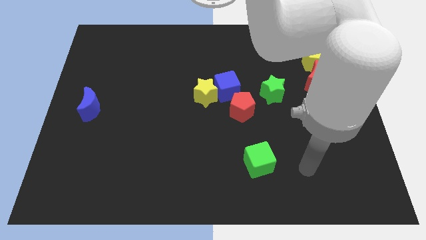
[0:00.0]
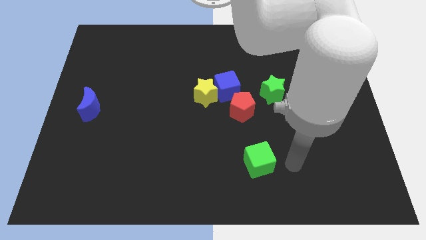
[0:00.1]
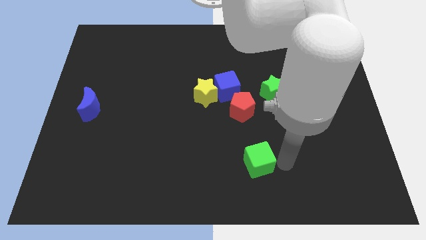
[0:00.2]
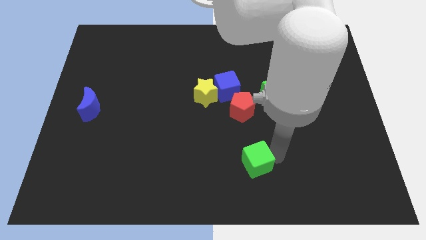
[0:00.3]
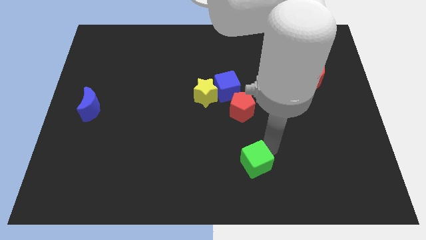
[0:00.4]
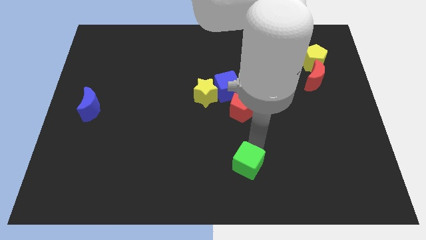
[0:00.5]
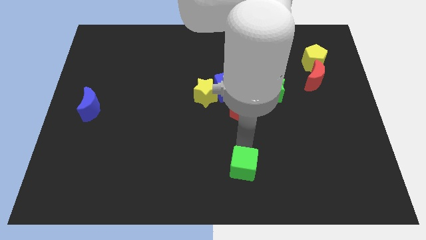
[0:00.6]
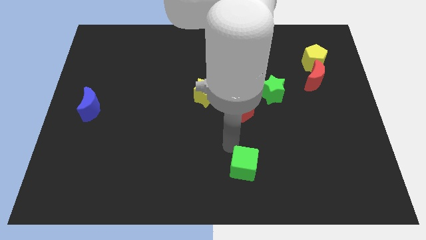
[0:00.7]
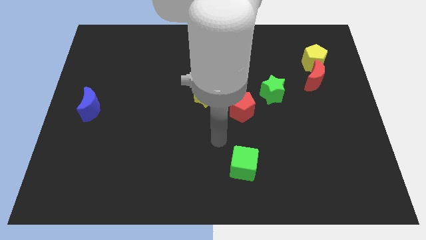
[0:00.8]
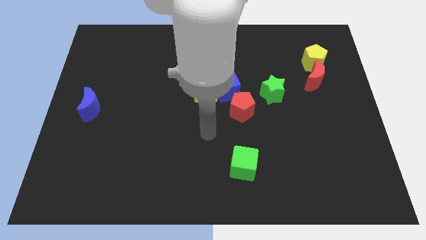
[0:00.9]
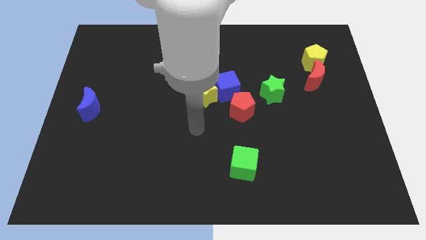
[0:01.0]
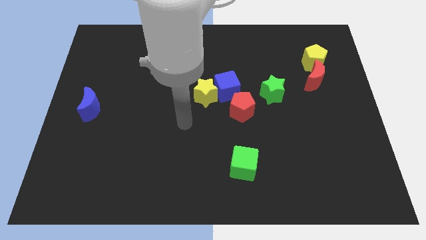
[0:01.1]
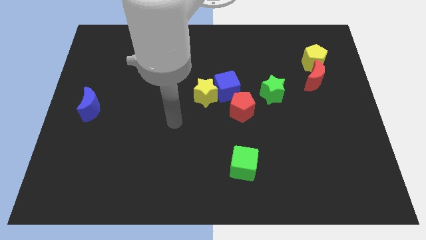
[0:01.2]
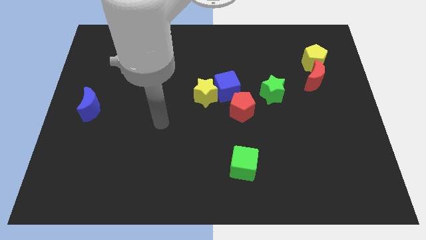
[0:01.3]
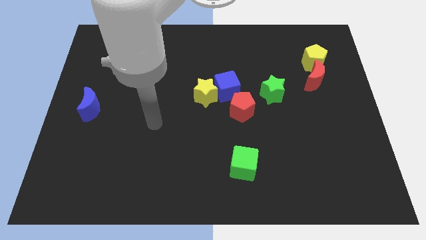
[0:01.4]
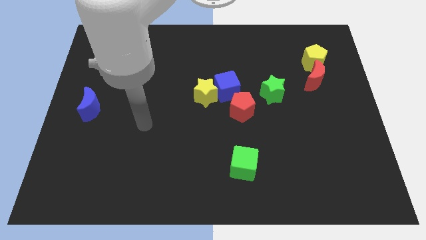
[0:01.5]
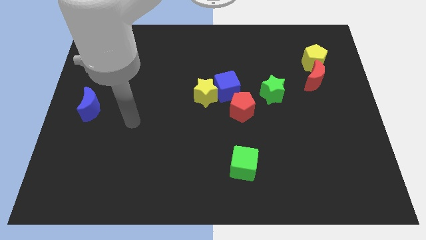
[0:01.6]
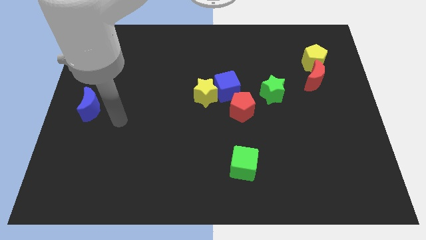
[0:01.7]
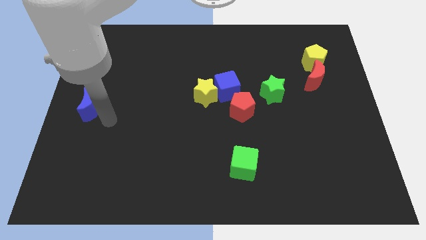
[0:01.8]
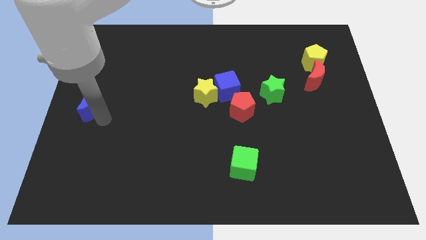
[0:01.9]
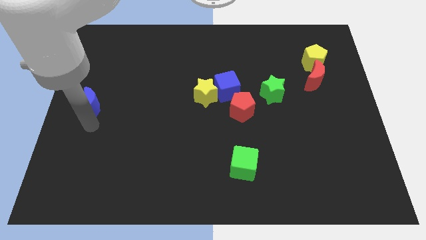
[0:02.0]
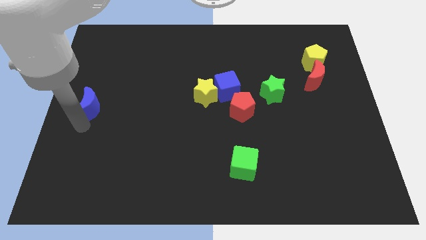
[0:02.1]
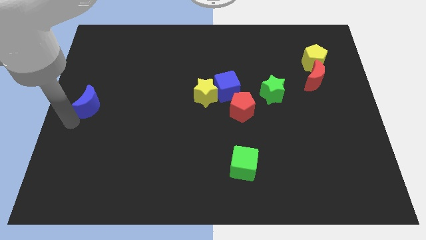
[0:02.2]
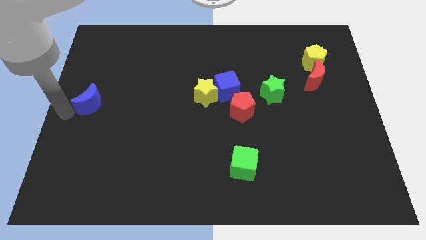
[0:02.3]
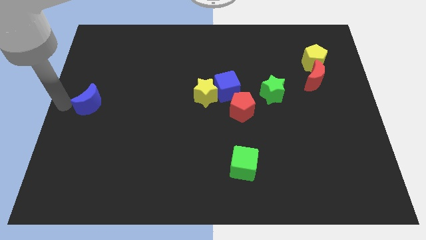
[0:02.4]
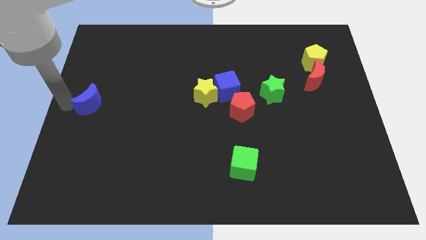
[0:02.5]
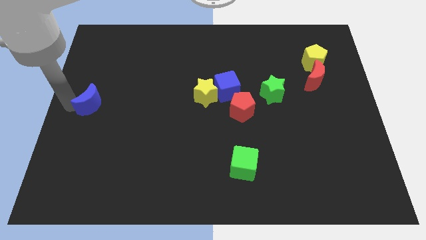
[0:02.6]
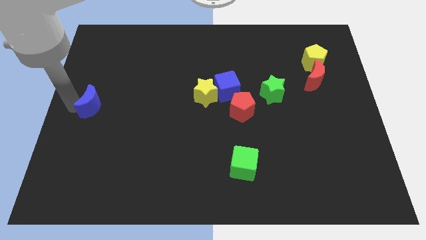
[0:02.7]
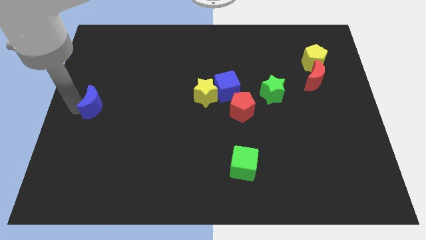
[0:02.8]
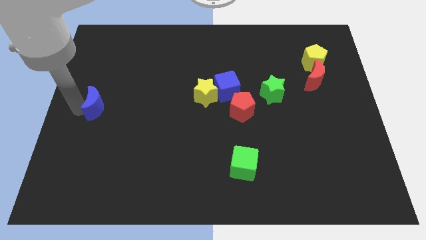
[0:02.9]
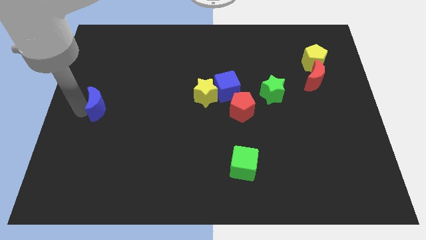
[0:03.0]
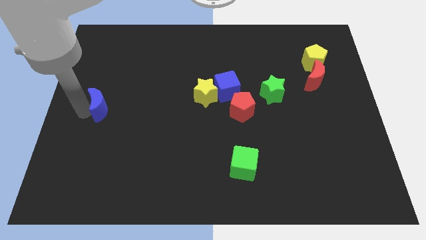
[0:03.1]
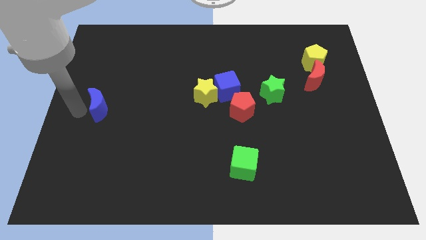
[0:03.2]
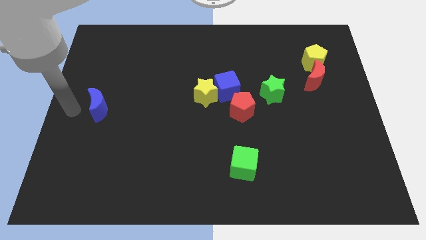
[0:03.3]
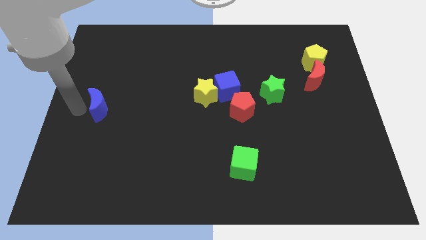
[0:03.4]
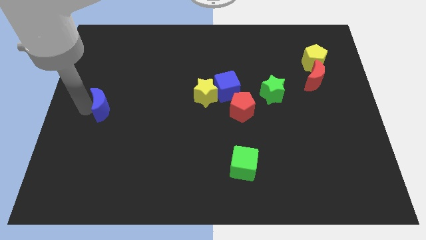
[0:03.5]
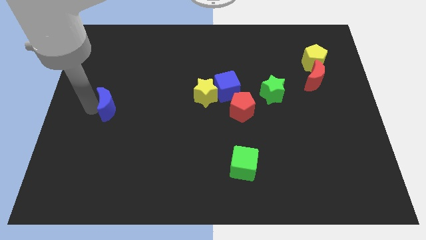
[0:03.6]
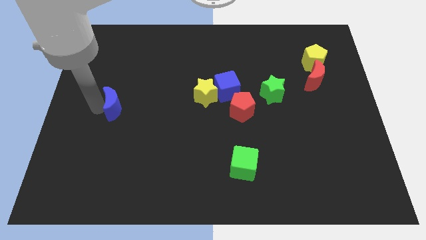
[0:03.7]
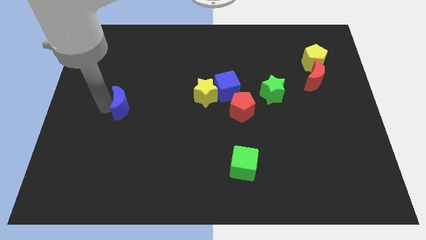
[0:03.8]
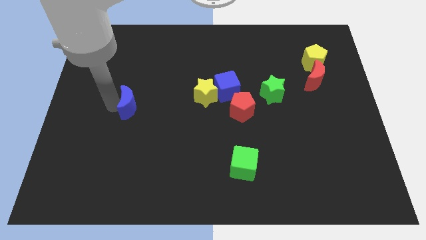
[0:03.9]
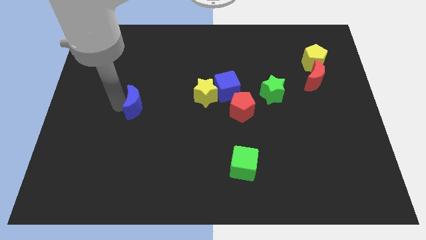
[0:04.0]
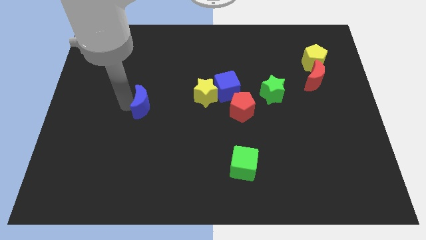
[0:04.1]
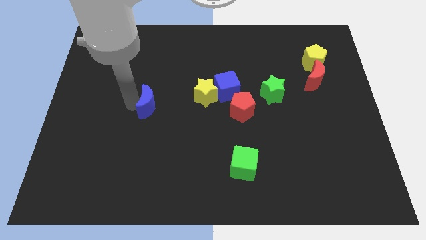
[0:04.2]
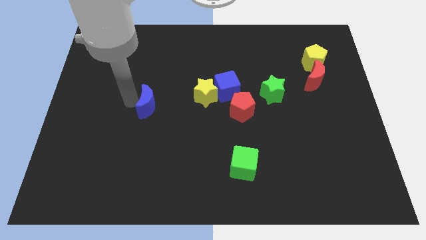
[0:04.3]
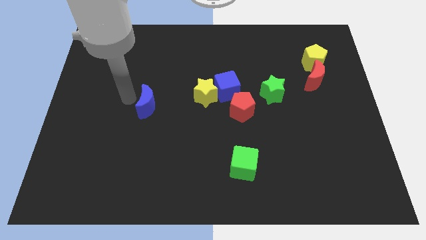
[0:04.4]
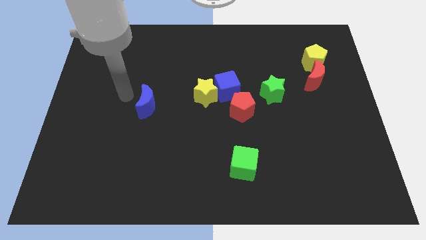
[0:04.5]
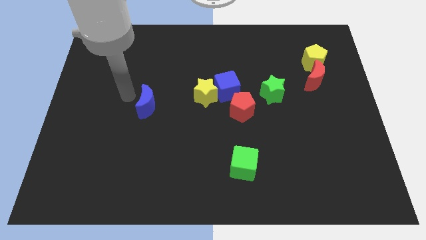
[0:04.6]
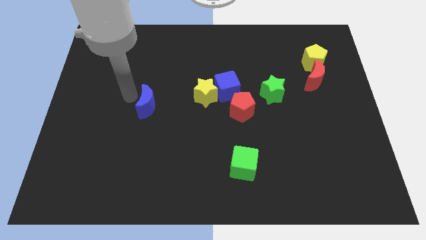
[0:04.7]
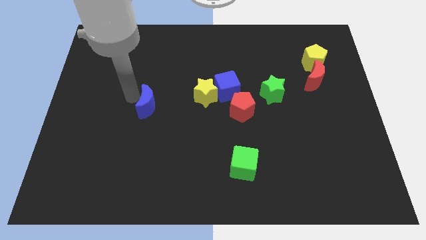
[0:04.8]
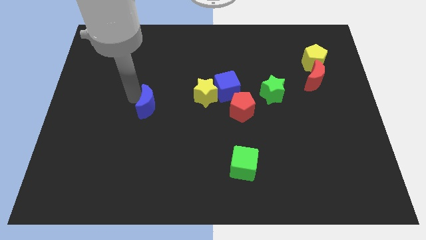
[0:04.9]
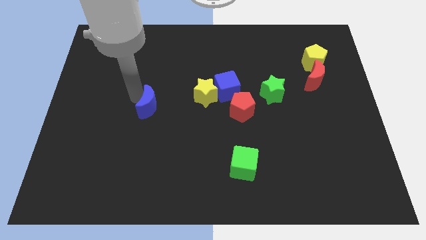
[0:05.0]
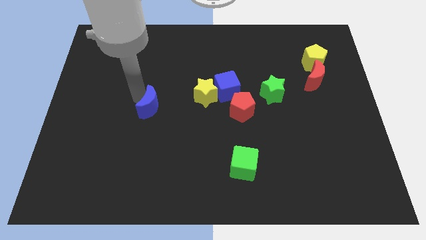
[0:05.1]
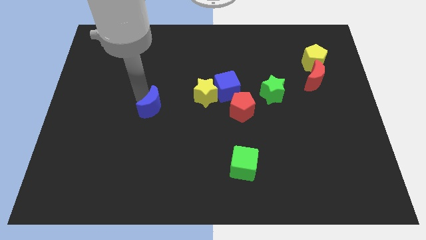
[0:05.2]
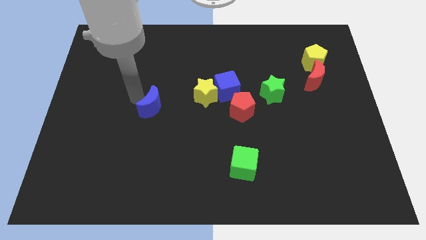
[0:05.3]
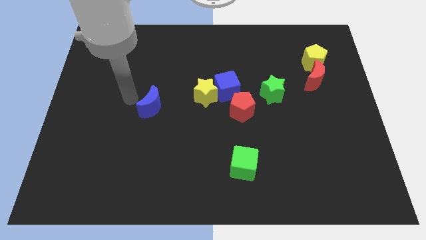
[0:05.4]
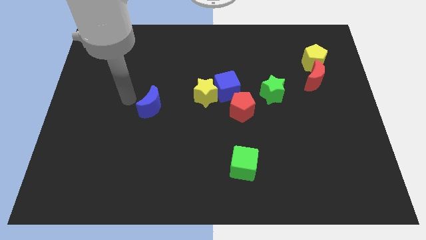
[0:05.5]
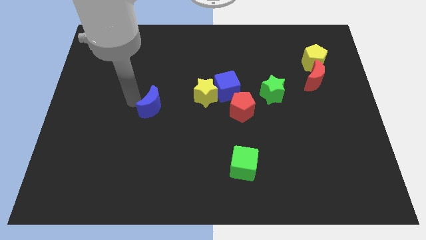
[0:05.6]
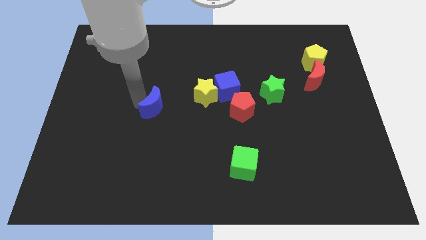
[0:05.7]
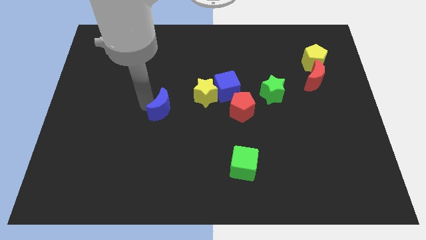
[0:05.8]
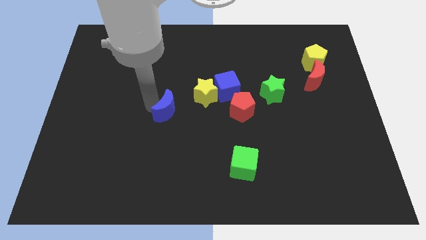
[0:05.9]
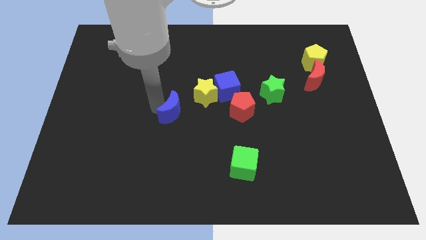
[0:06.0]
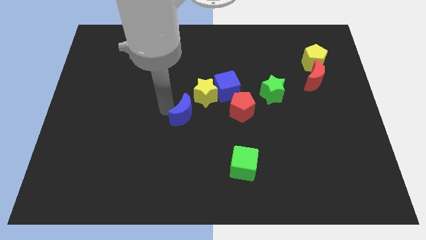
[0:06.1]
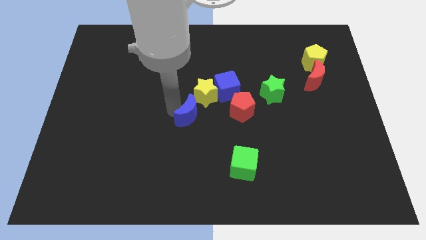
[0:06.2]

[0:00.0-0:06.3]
move the blue moon to the bottom side of the yellow star
